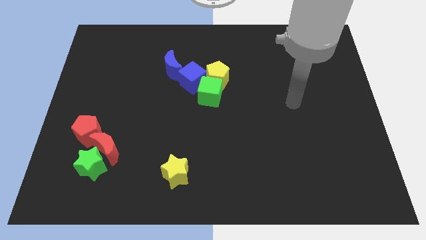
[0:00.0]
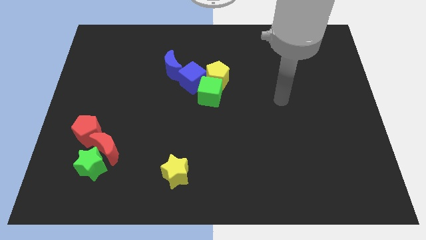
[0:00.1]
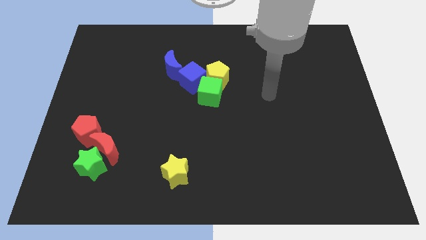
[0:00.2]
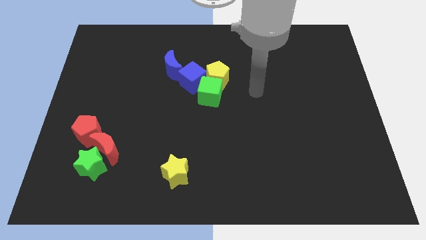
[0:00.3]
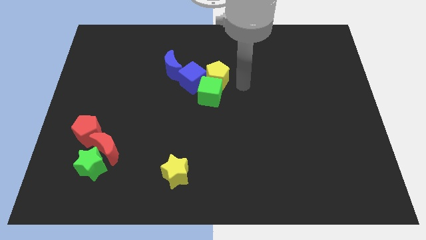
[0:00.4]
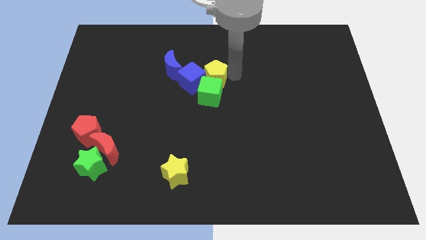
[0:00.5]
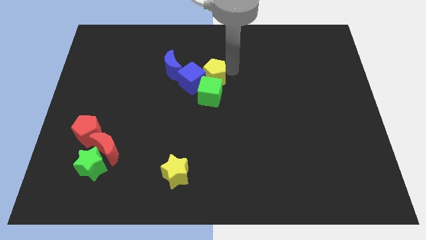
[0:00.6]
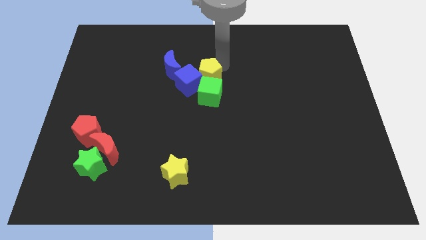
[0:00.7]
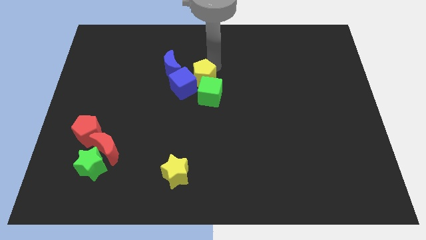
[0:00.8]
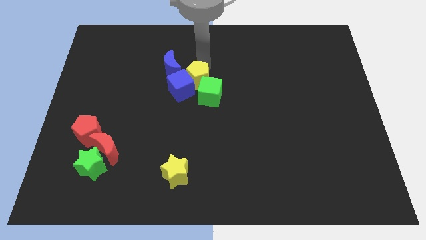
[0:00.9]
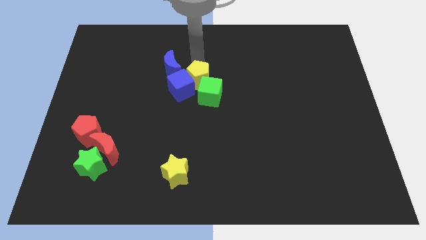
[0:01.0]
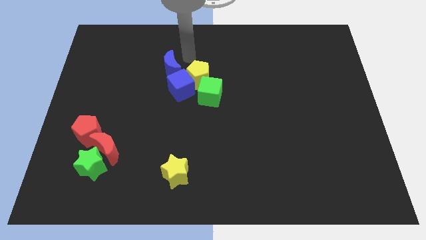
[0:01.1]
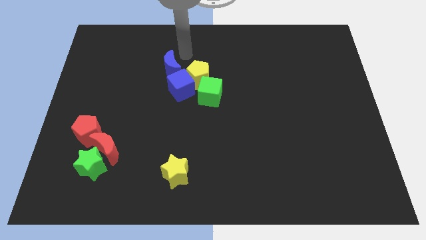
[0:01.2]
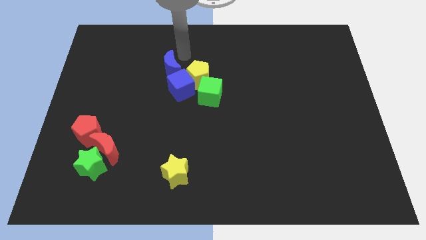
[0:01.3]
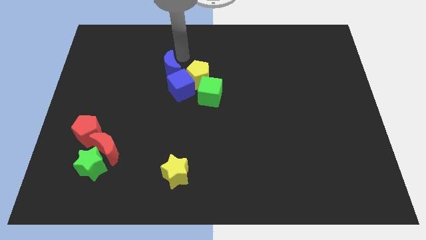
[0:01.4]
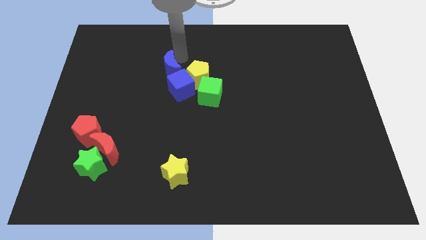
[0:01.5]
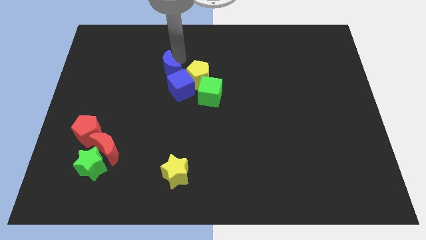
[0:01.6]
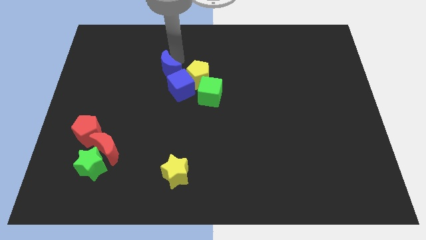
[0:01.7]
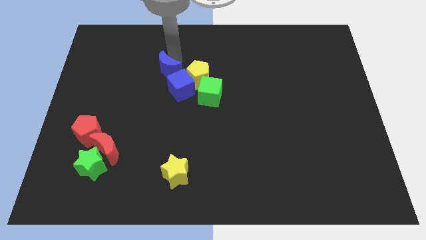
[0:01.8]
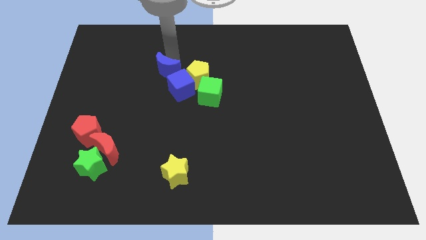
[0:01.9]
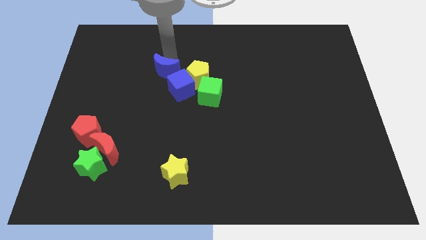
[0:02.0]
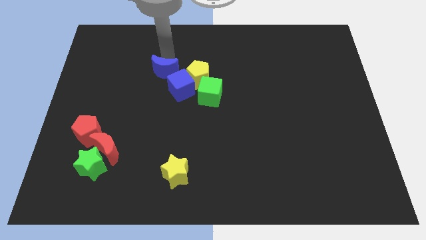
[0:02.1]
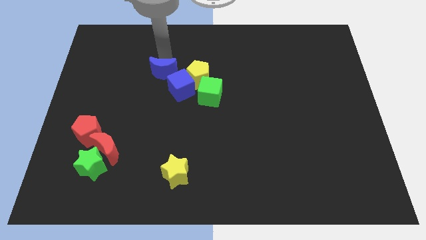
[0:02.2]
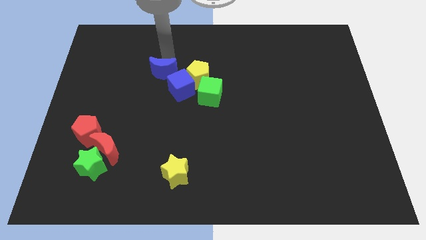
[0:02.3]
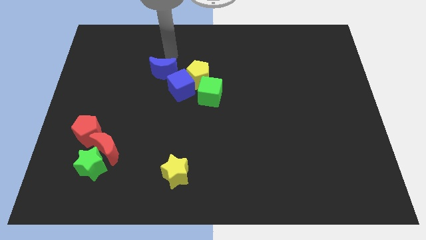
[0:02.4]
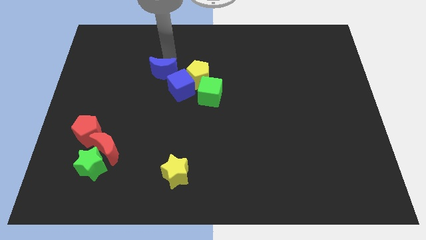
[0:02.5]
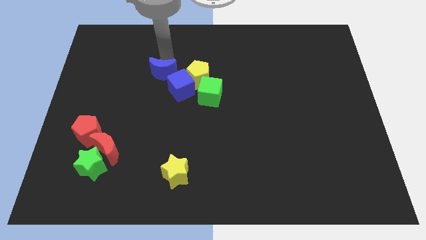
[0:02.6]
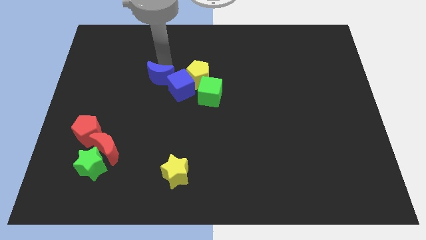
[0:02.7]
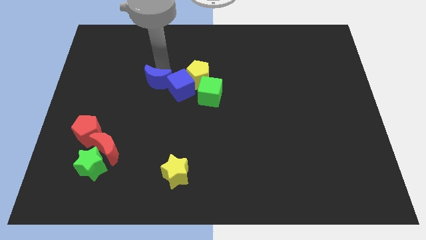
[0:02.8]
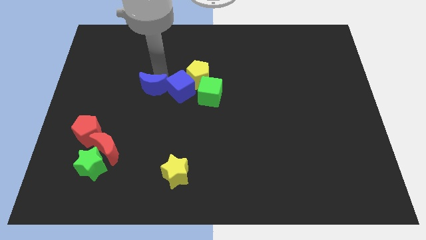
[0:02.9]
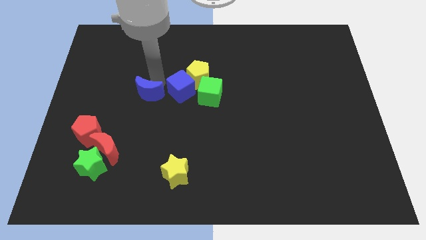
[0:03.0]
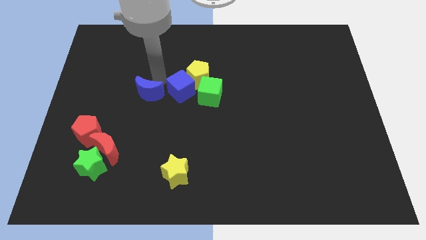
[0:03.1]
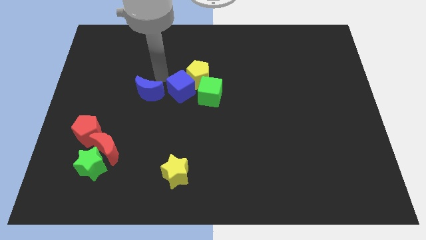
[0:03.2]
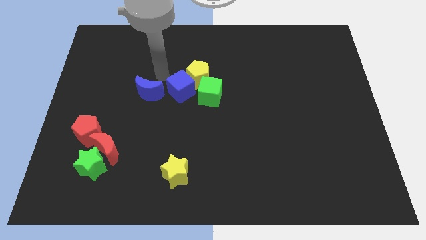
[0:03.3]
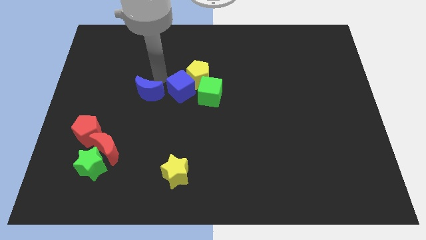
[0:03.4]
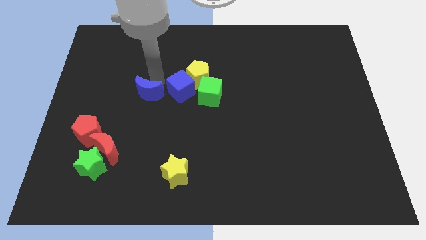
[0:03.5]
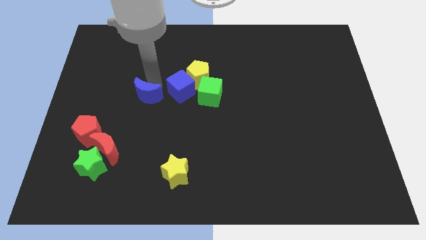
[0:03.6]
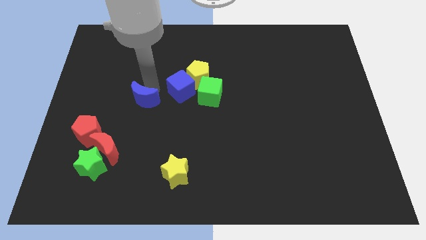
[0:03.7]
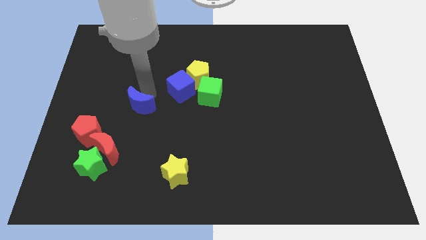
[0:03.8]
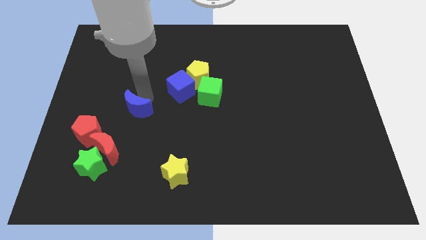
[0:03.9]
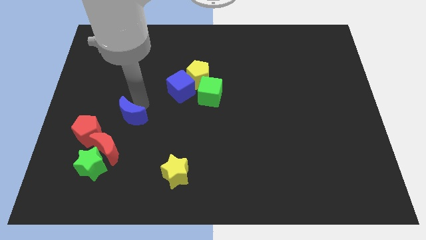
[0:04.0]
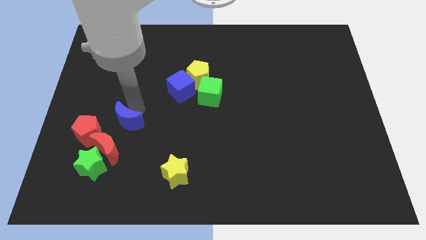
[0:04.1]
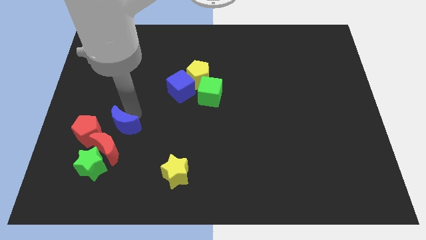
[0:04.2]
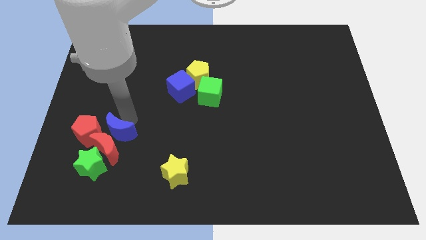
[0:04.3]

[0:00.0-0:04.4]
put the blue moon towards the red moon

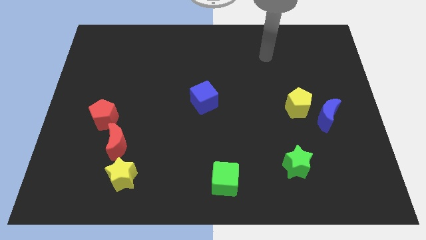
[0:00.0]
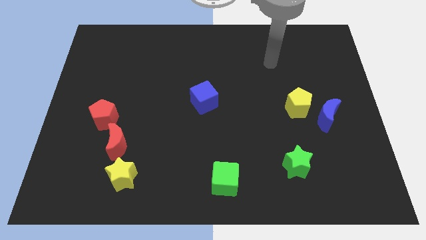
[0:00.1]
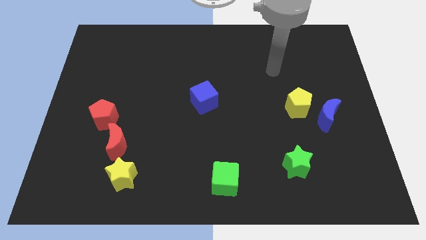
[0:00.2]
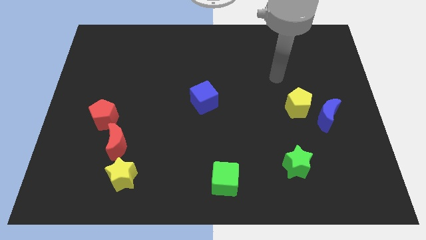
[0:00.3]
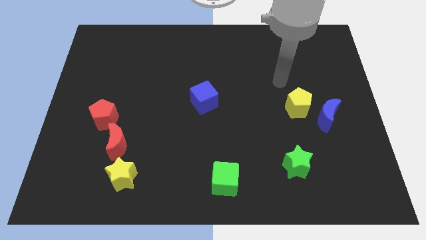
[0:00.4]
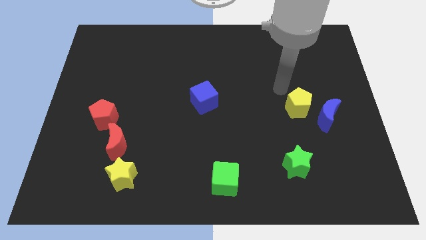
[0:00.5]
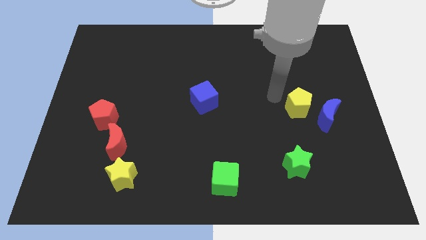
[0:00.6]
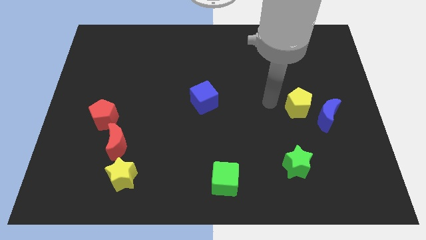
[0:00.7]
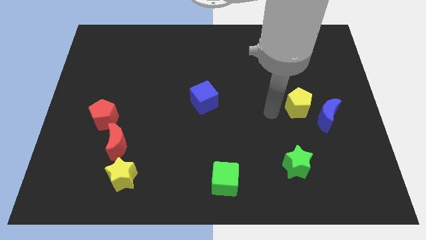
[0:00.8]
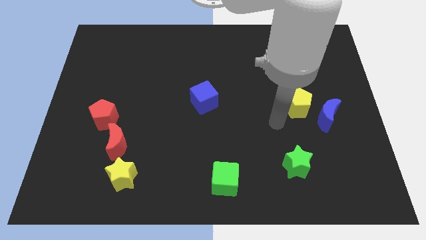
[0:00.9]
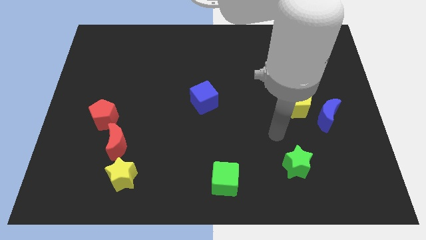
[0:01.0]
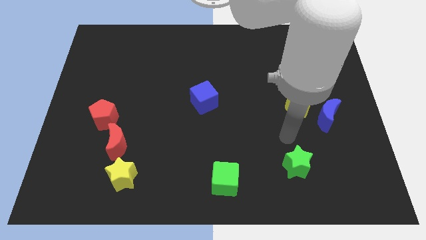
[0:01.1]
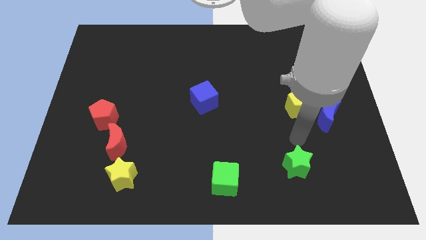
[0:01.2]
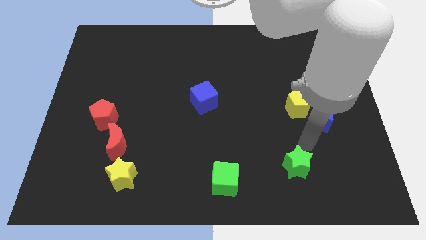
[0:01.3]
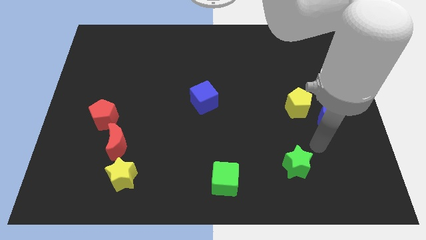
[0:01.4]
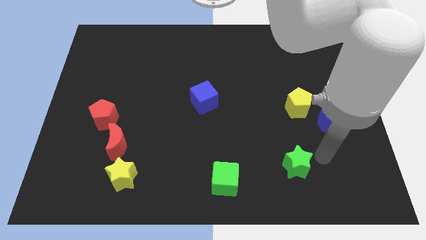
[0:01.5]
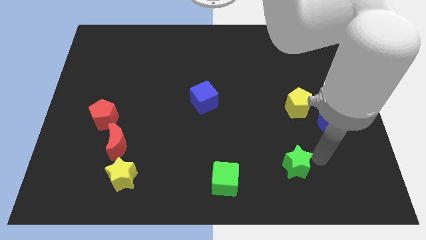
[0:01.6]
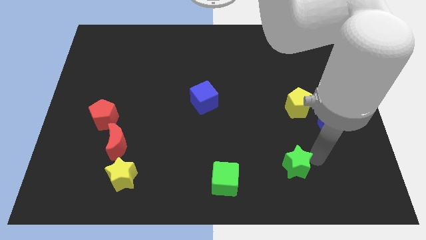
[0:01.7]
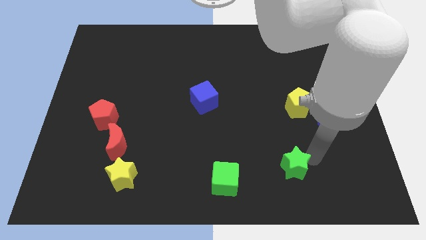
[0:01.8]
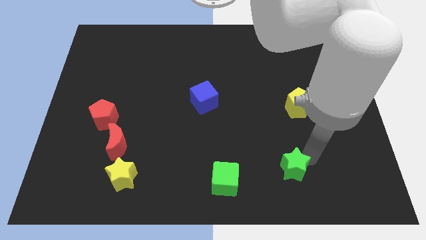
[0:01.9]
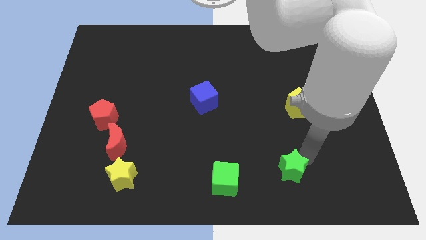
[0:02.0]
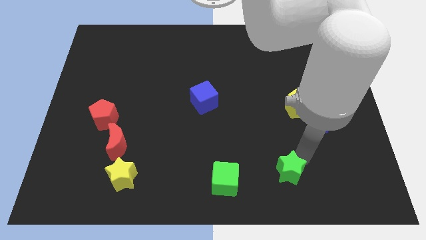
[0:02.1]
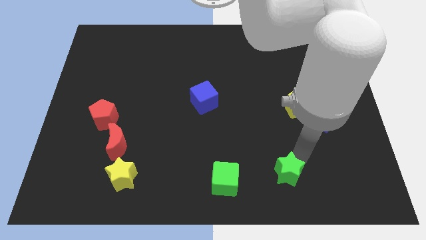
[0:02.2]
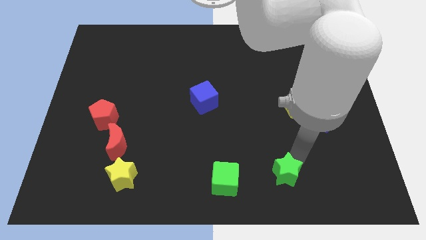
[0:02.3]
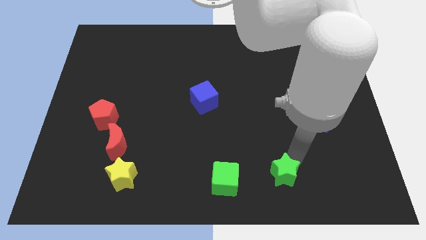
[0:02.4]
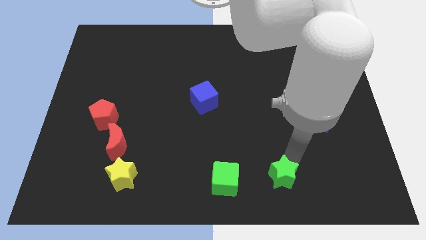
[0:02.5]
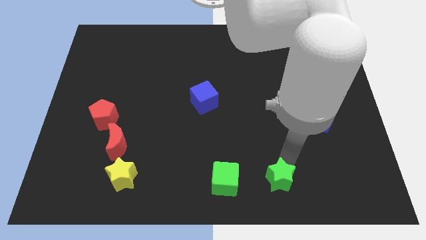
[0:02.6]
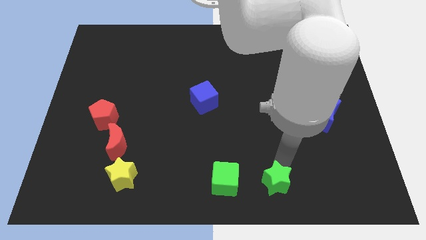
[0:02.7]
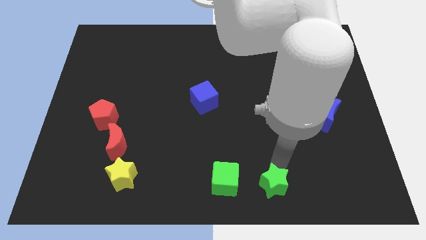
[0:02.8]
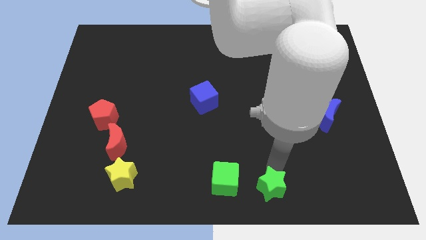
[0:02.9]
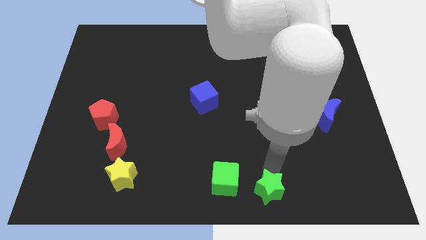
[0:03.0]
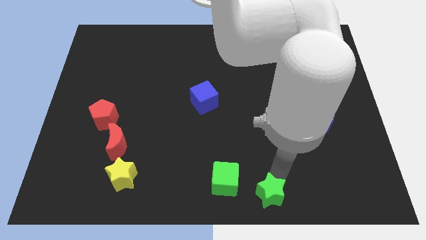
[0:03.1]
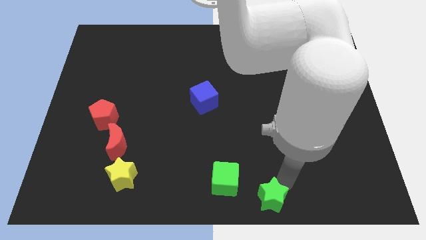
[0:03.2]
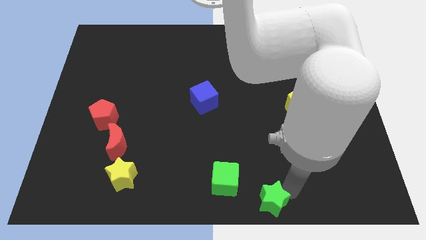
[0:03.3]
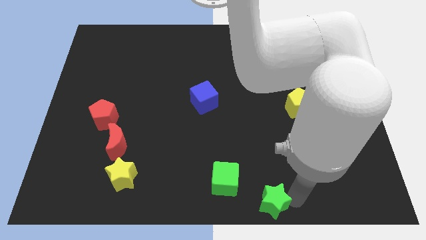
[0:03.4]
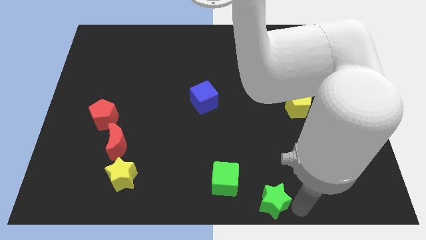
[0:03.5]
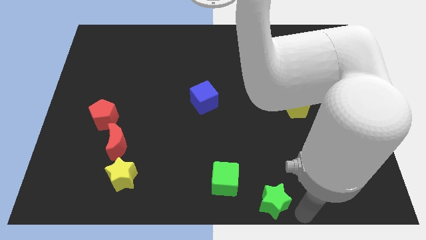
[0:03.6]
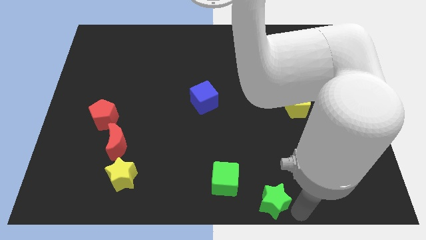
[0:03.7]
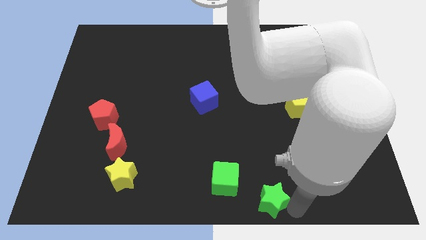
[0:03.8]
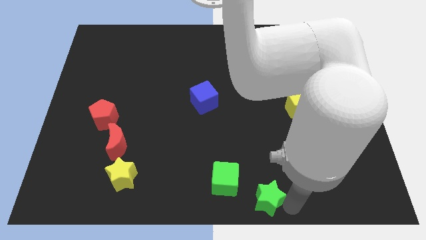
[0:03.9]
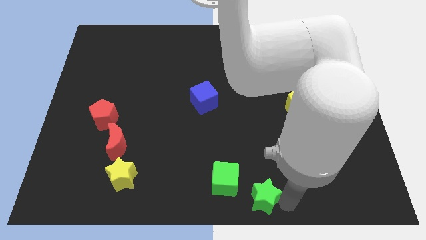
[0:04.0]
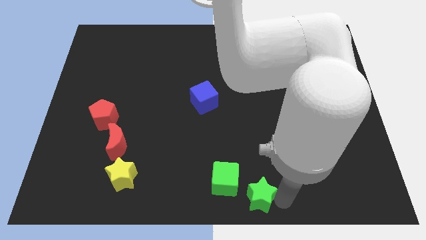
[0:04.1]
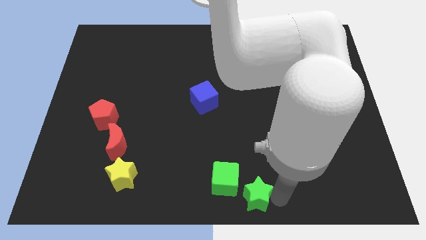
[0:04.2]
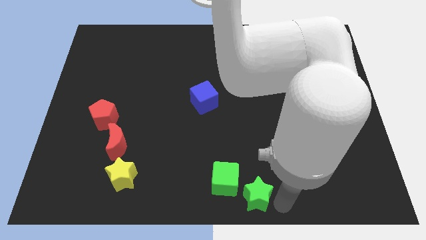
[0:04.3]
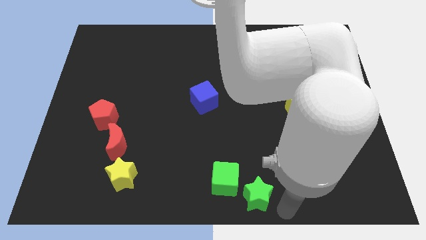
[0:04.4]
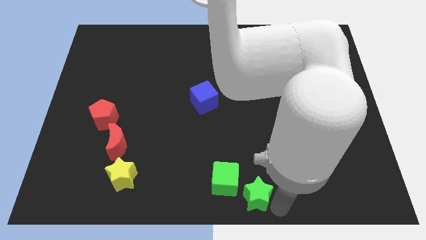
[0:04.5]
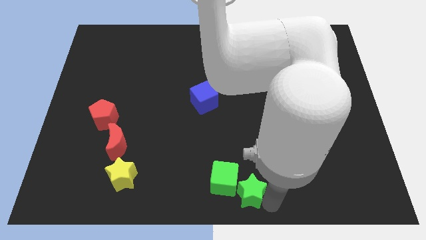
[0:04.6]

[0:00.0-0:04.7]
slide the green star towards the green cube
